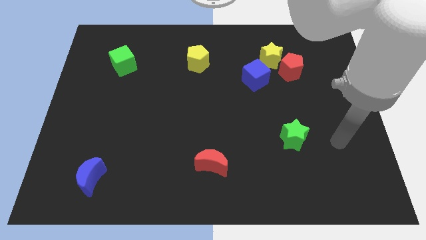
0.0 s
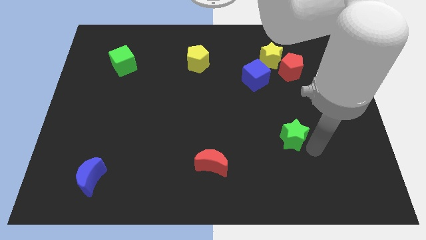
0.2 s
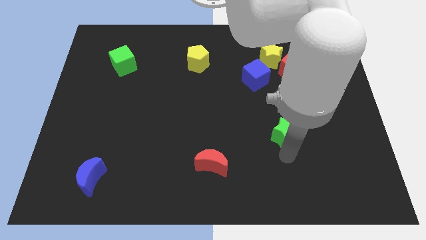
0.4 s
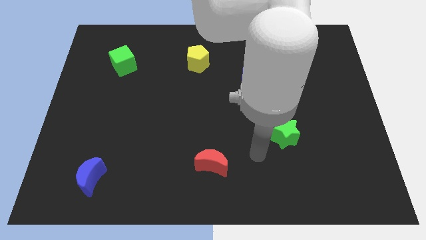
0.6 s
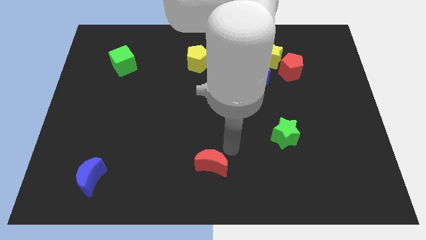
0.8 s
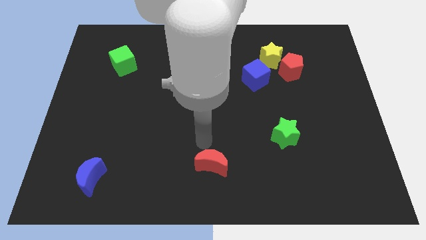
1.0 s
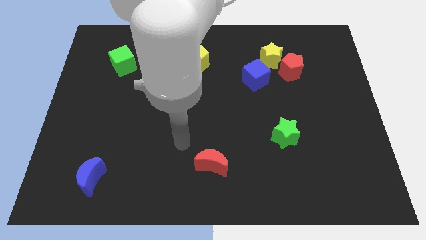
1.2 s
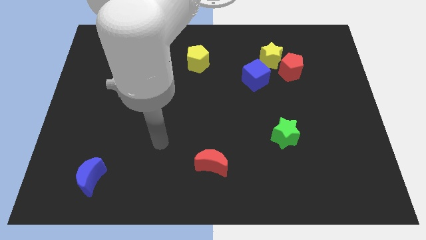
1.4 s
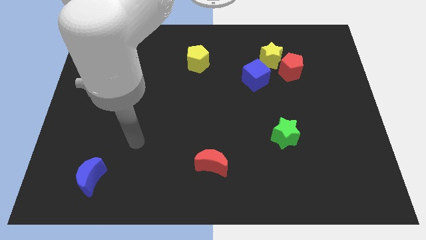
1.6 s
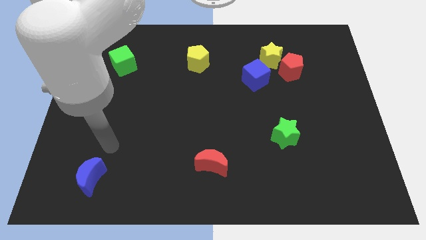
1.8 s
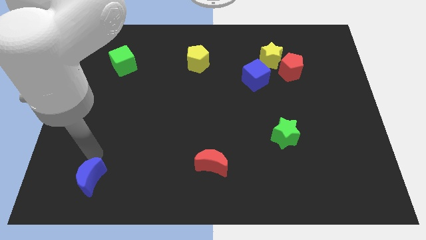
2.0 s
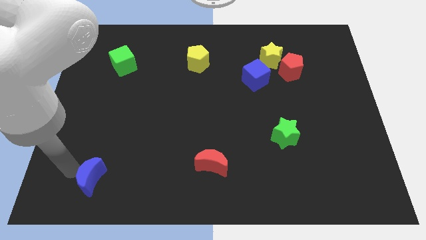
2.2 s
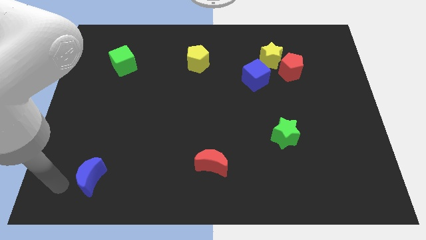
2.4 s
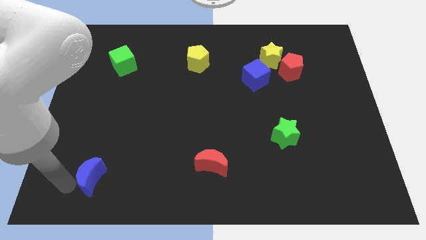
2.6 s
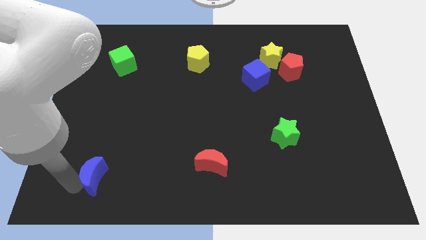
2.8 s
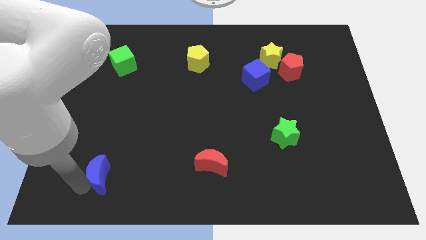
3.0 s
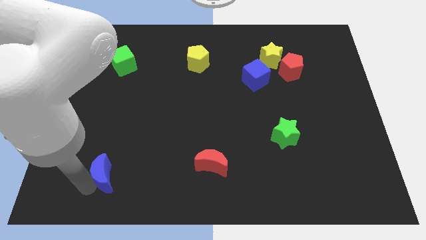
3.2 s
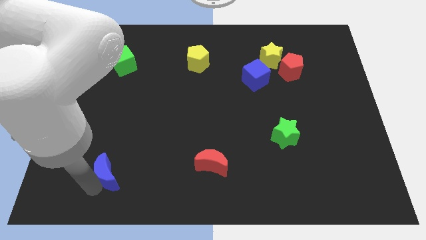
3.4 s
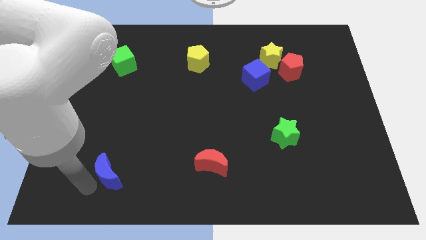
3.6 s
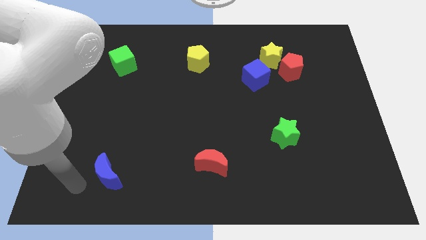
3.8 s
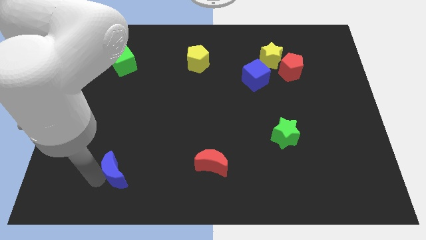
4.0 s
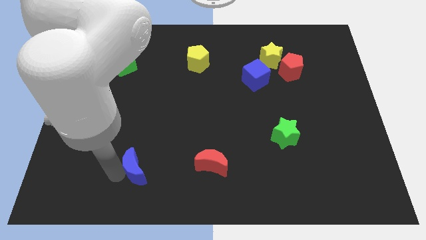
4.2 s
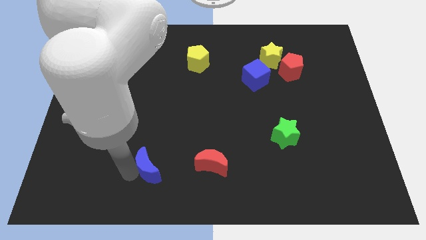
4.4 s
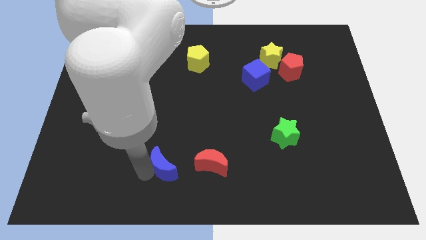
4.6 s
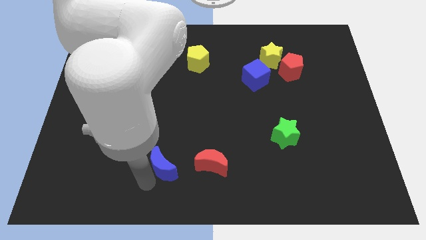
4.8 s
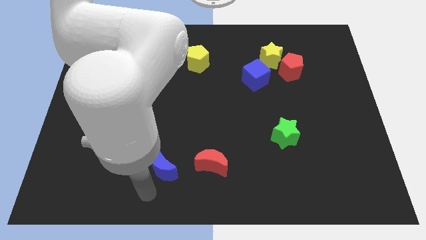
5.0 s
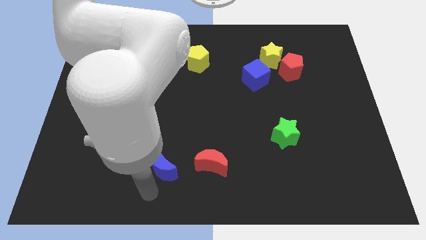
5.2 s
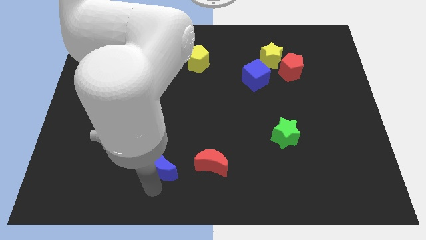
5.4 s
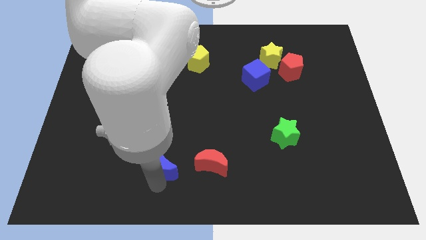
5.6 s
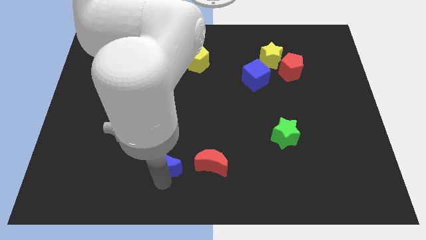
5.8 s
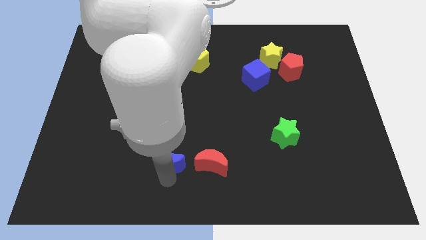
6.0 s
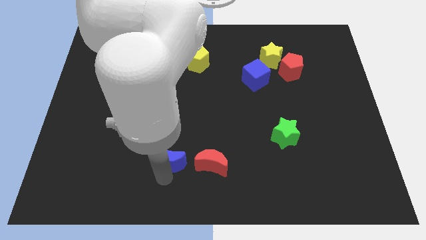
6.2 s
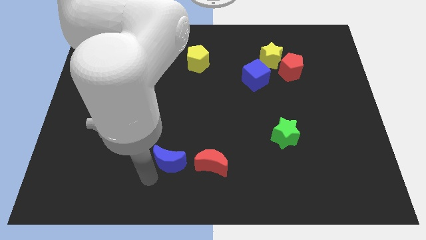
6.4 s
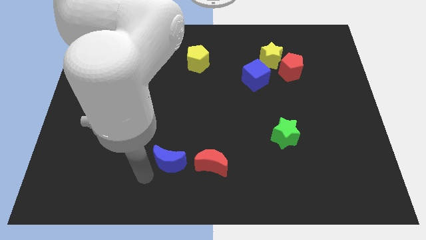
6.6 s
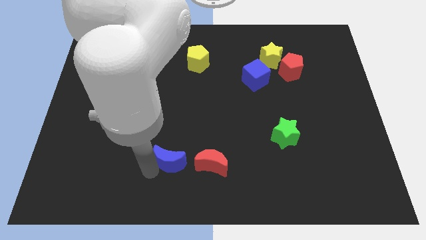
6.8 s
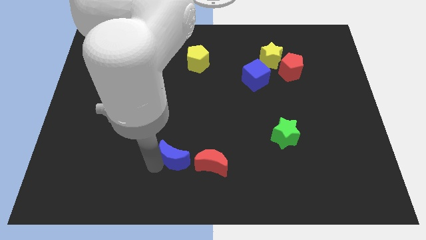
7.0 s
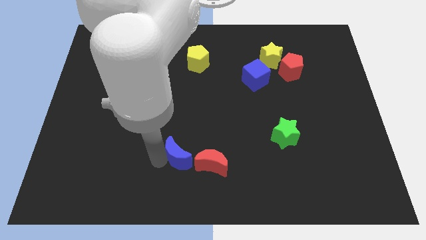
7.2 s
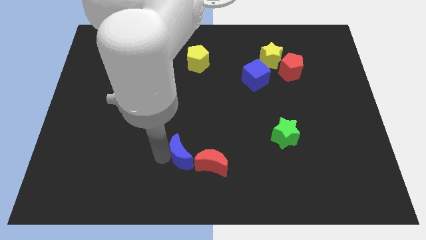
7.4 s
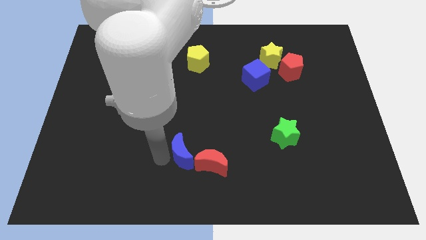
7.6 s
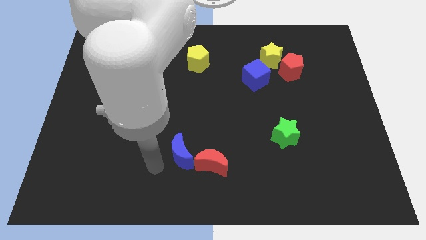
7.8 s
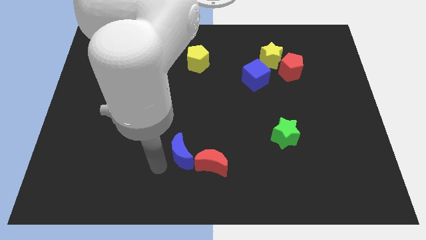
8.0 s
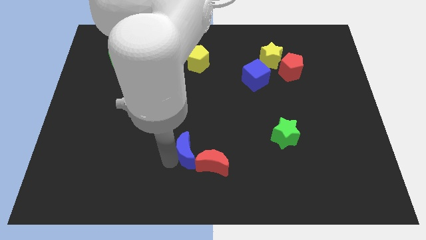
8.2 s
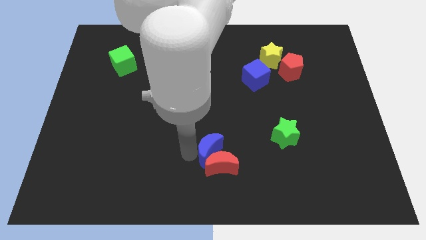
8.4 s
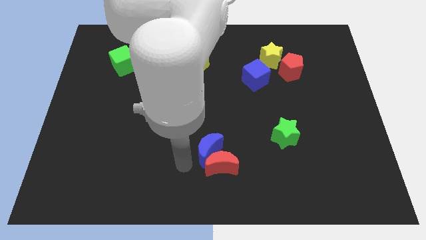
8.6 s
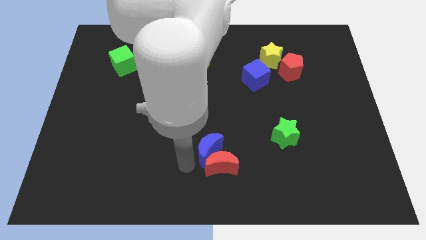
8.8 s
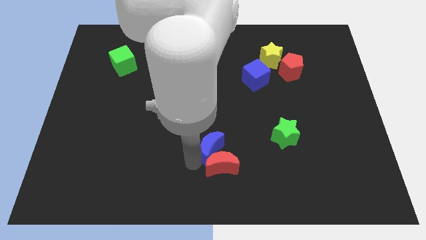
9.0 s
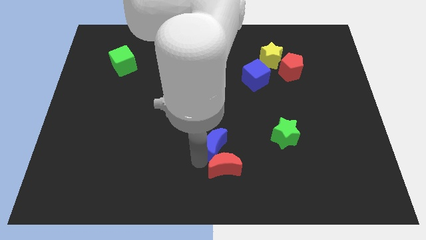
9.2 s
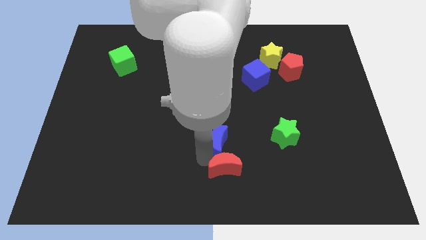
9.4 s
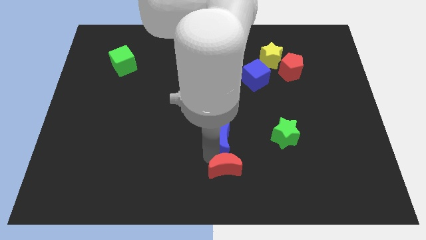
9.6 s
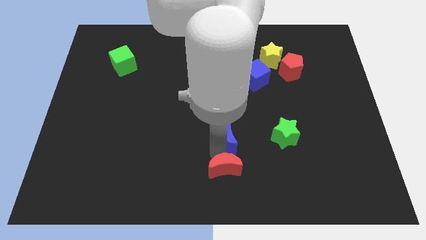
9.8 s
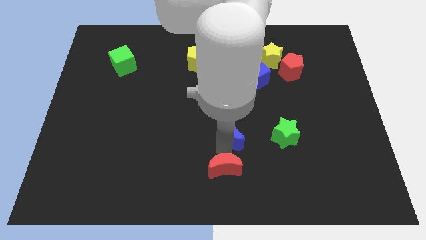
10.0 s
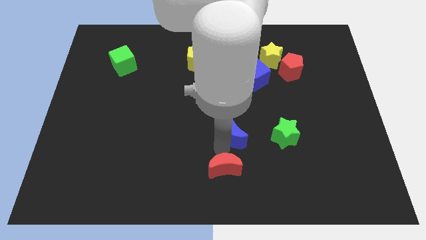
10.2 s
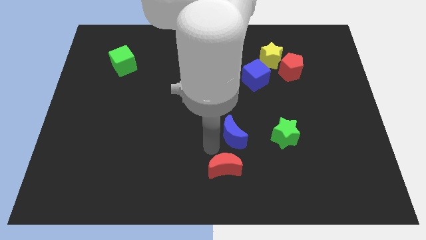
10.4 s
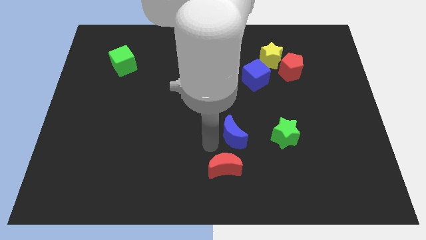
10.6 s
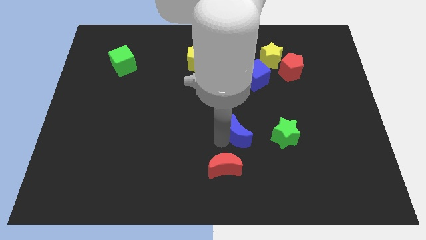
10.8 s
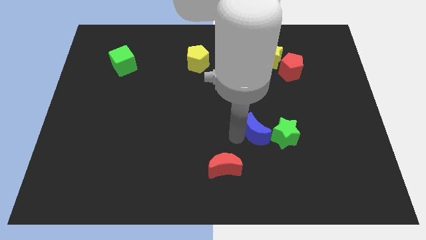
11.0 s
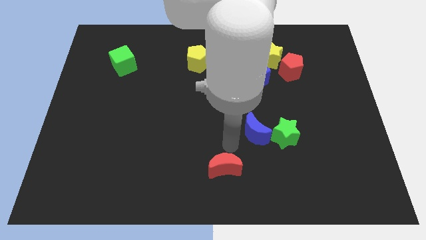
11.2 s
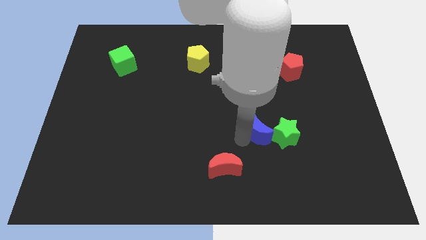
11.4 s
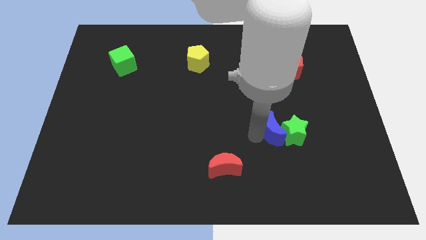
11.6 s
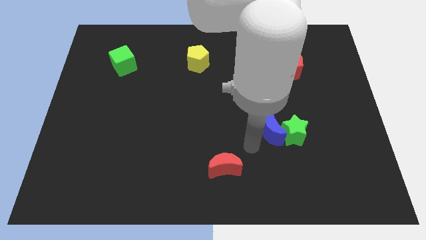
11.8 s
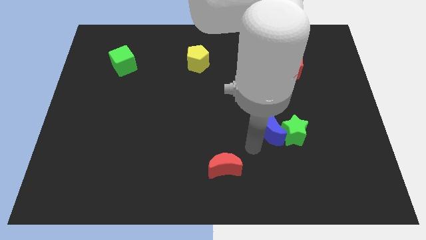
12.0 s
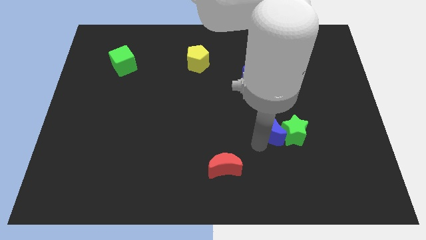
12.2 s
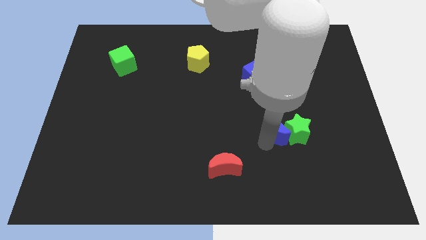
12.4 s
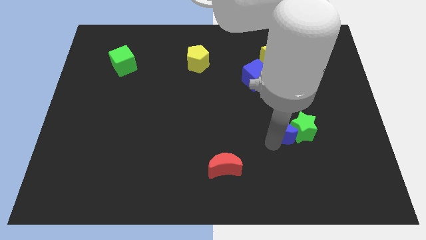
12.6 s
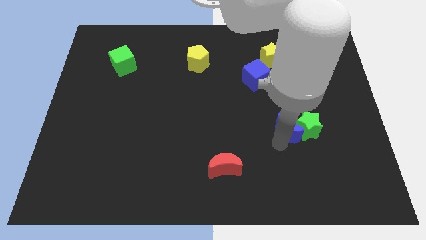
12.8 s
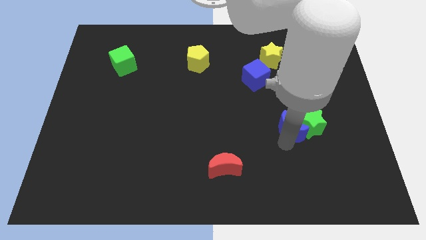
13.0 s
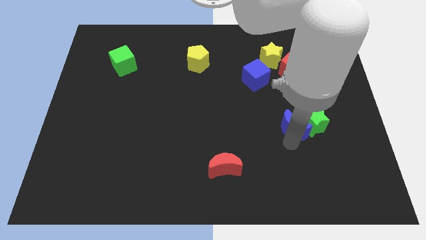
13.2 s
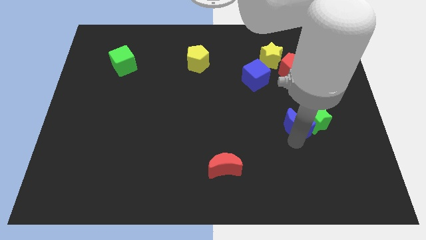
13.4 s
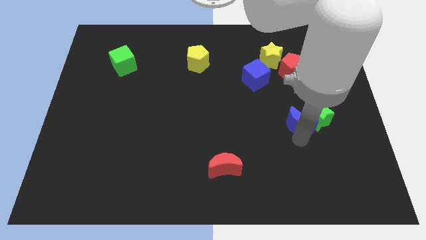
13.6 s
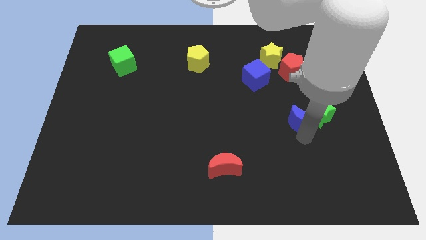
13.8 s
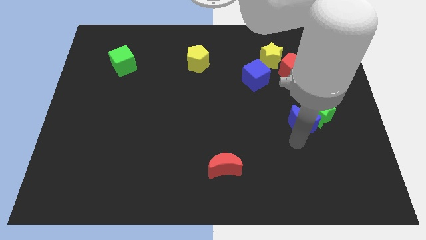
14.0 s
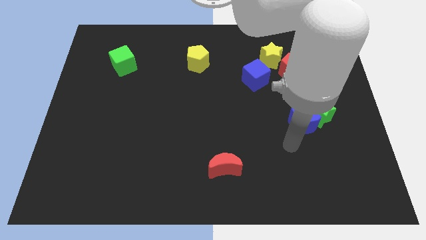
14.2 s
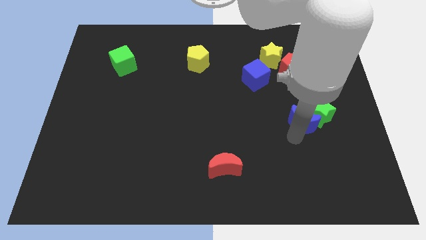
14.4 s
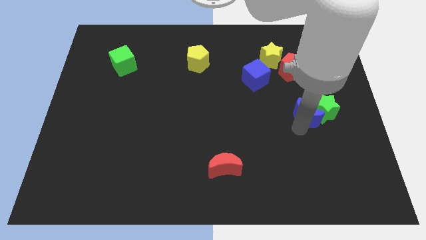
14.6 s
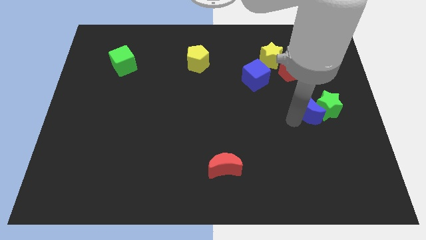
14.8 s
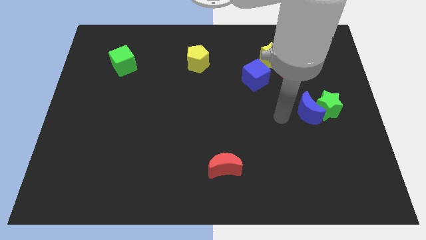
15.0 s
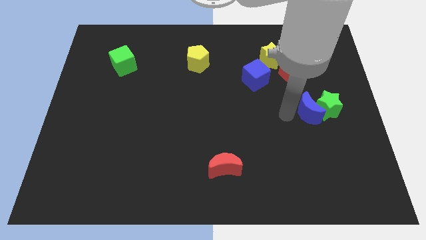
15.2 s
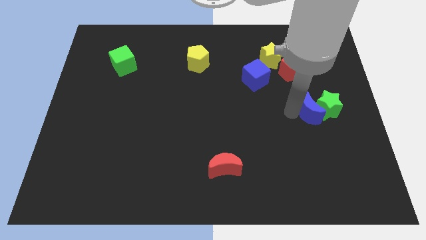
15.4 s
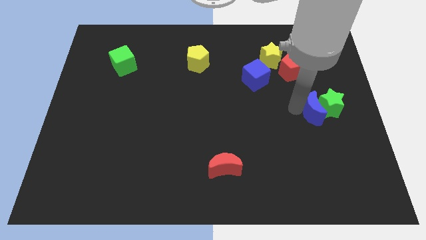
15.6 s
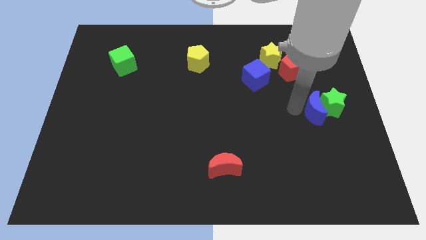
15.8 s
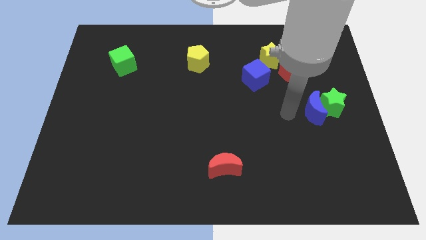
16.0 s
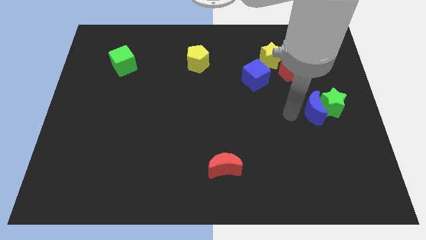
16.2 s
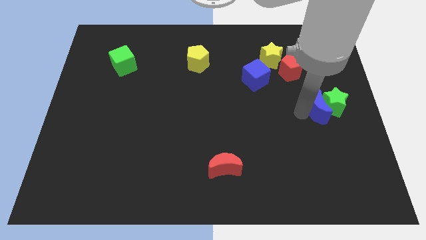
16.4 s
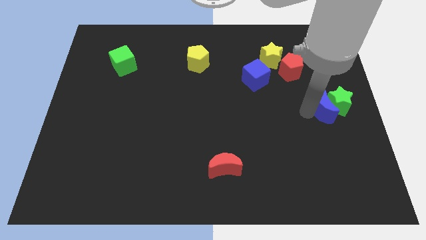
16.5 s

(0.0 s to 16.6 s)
put the blue moon to the center right
